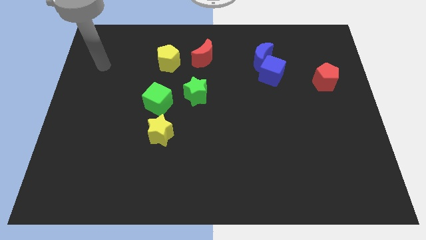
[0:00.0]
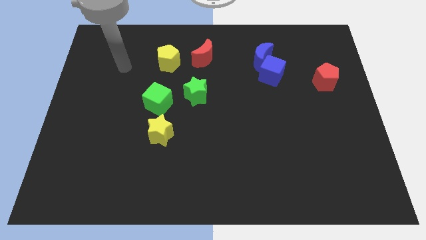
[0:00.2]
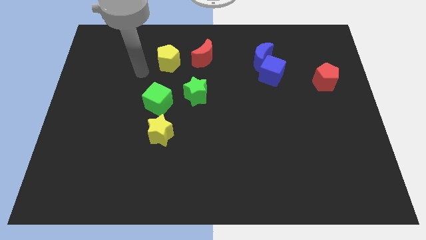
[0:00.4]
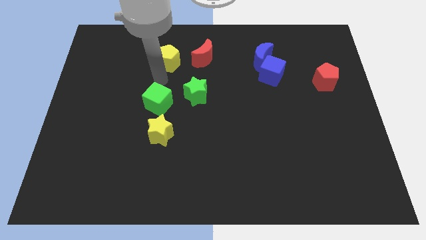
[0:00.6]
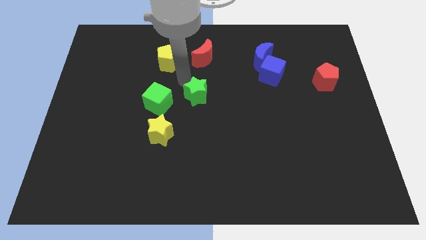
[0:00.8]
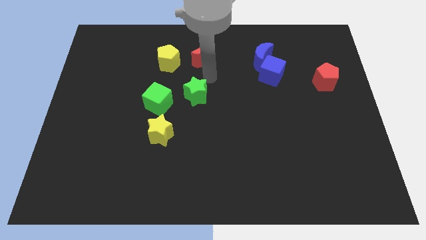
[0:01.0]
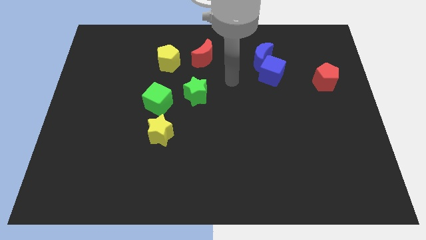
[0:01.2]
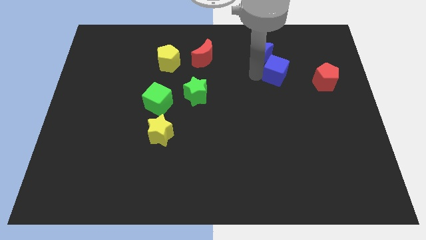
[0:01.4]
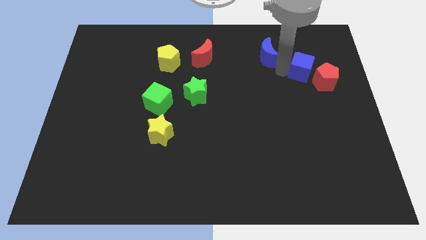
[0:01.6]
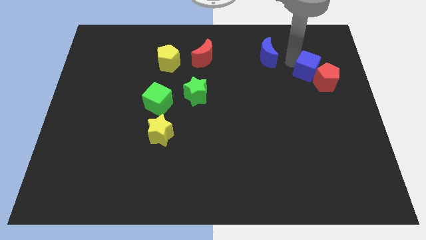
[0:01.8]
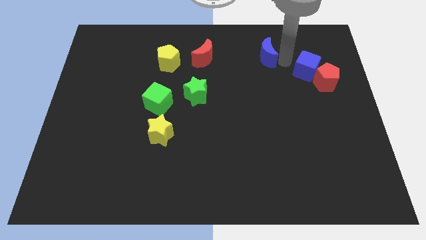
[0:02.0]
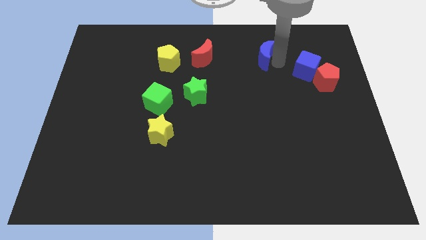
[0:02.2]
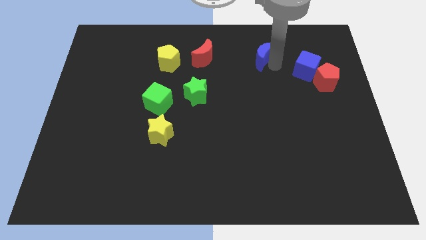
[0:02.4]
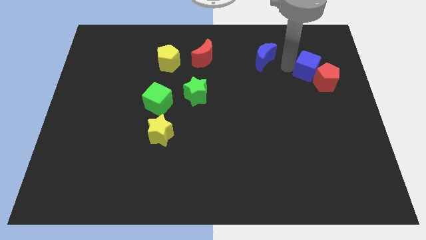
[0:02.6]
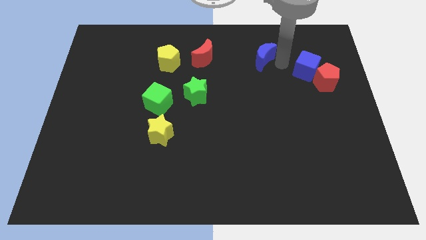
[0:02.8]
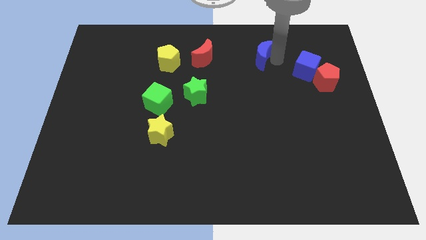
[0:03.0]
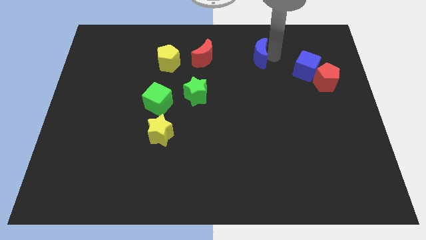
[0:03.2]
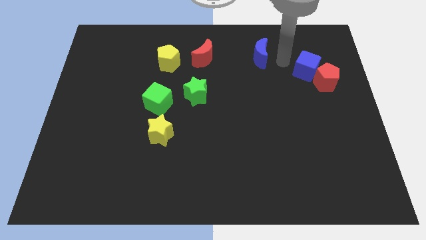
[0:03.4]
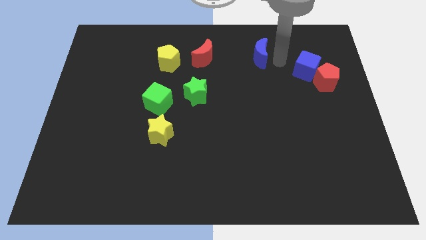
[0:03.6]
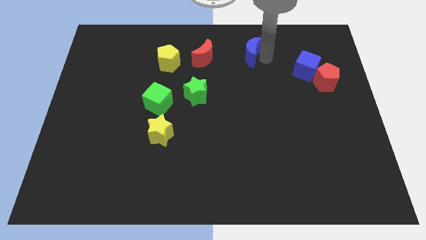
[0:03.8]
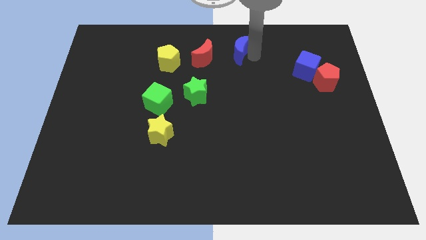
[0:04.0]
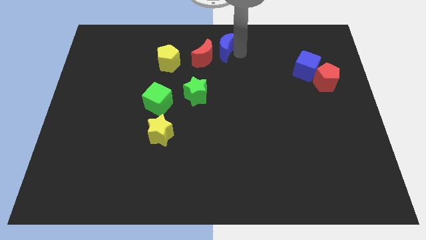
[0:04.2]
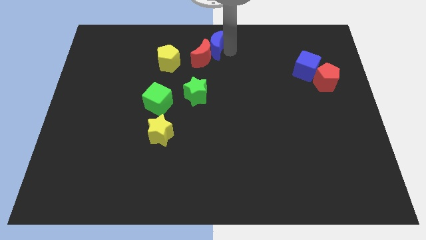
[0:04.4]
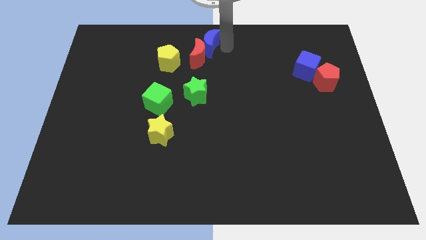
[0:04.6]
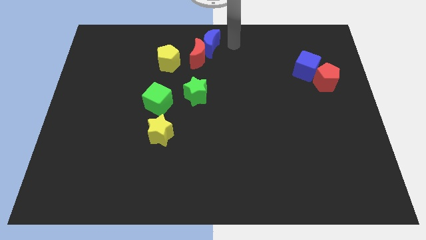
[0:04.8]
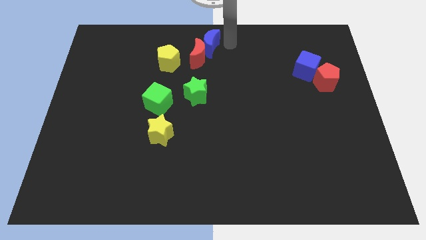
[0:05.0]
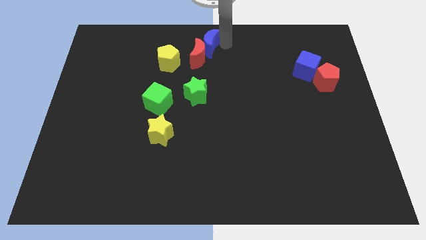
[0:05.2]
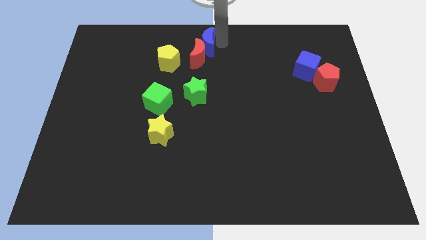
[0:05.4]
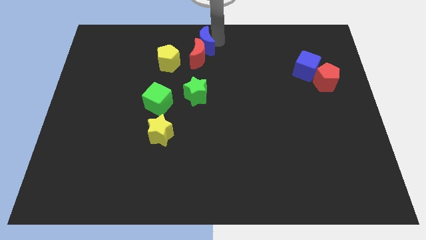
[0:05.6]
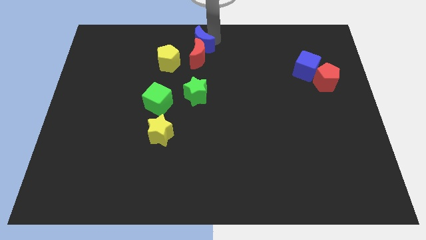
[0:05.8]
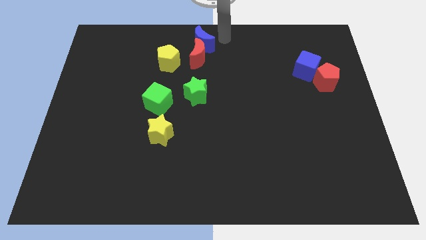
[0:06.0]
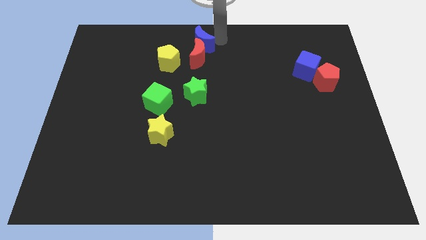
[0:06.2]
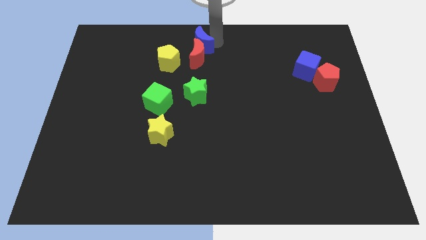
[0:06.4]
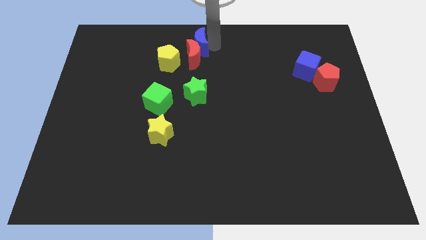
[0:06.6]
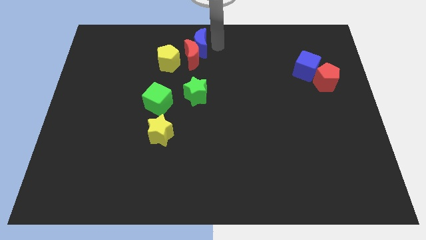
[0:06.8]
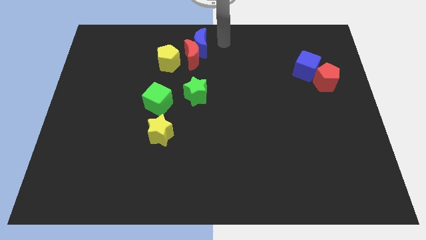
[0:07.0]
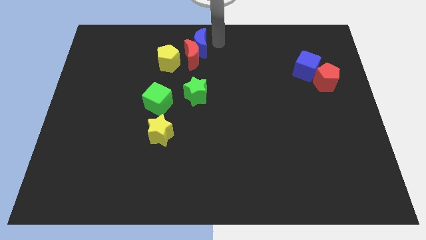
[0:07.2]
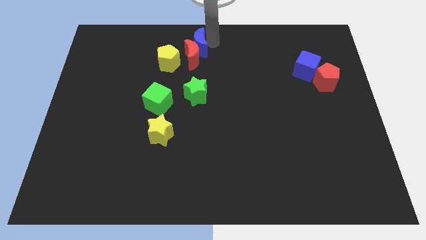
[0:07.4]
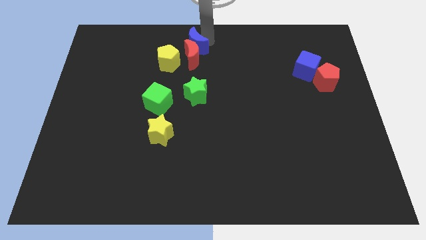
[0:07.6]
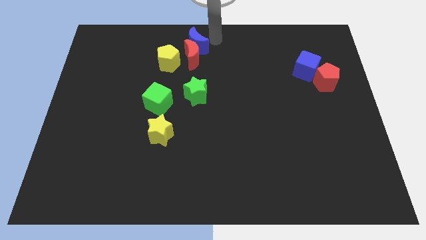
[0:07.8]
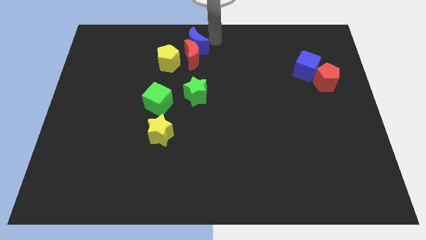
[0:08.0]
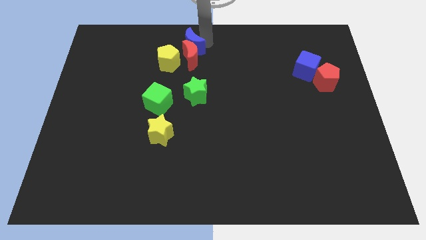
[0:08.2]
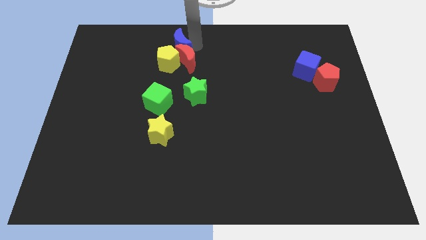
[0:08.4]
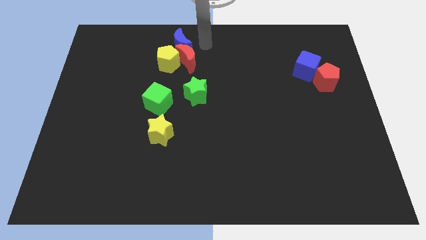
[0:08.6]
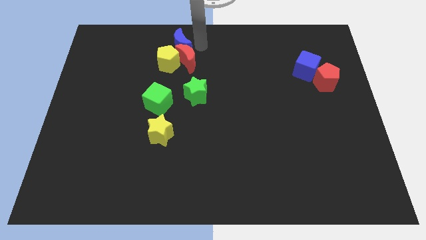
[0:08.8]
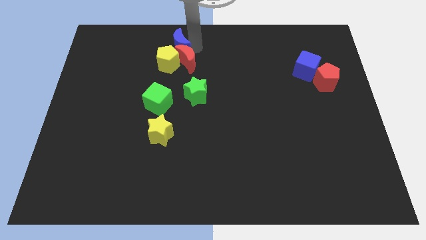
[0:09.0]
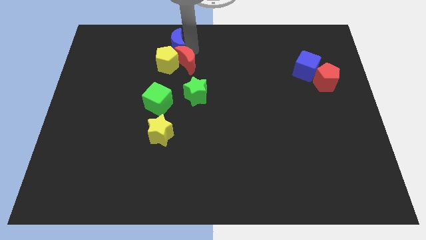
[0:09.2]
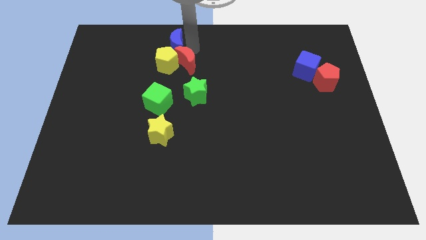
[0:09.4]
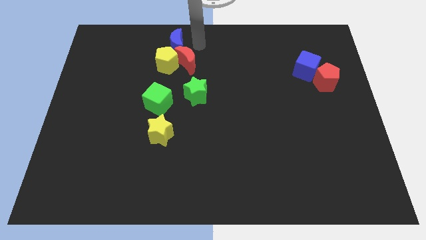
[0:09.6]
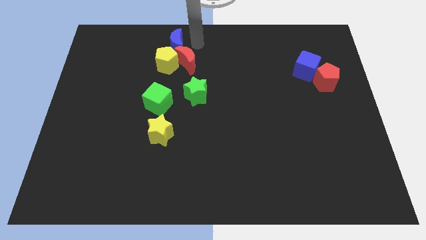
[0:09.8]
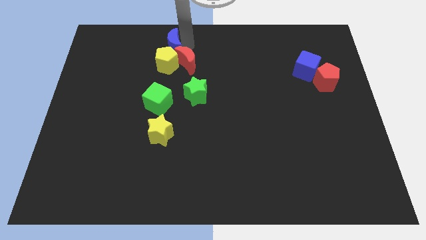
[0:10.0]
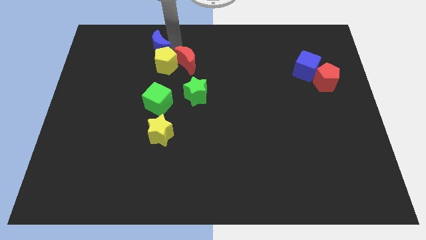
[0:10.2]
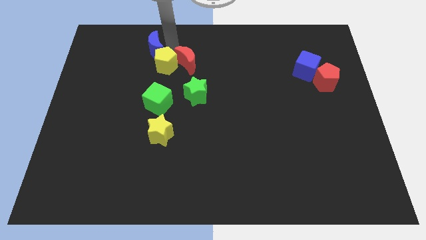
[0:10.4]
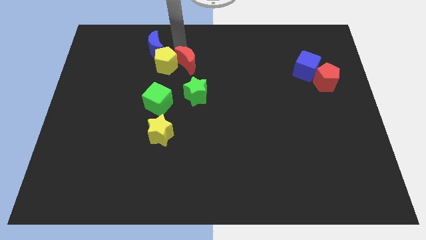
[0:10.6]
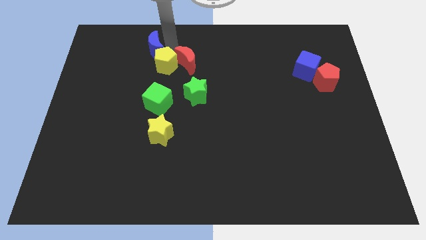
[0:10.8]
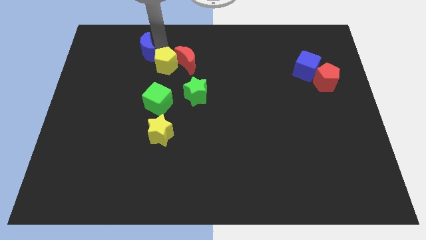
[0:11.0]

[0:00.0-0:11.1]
move the blue moon just left of the yellow pentagon

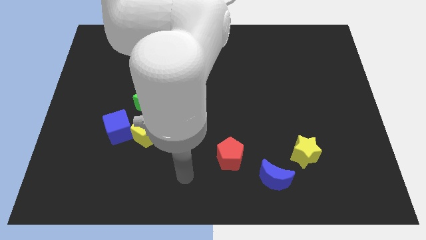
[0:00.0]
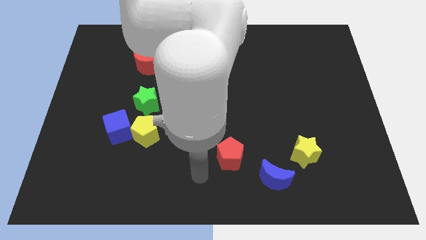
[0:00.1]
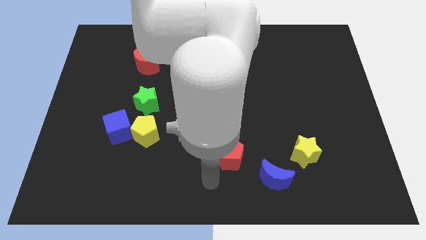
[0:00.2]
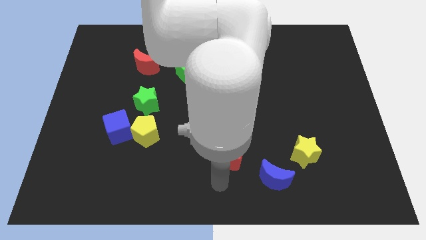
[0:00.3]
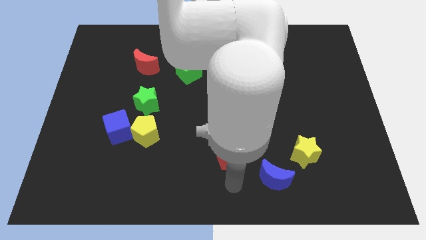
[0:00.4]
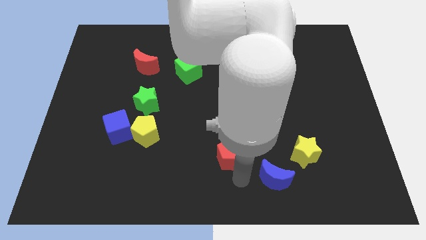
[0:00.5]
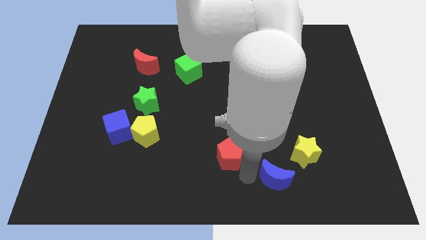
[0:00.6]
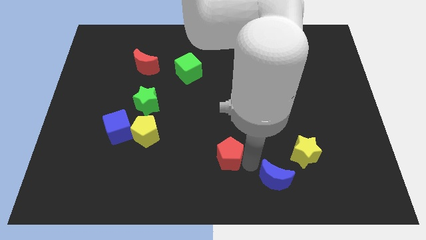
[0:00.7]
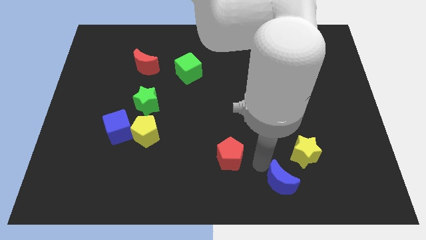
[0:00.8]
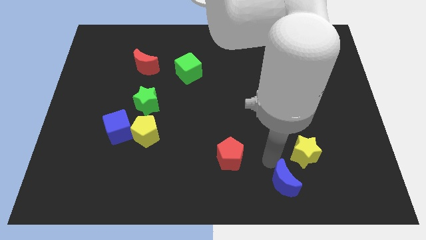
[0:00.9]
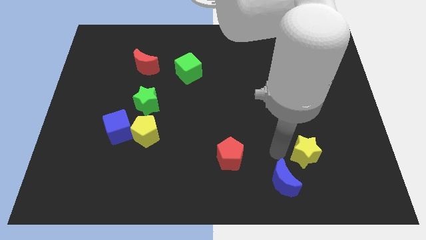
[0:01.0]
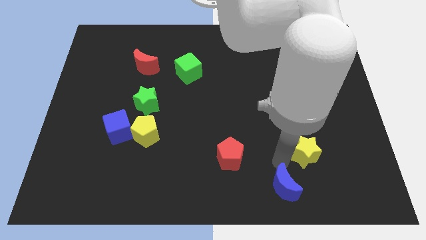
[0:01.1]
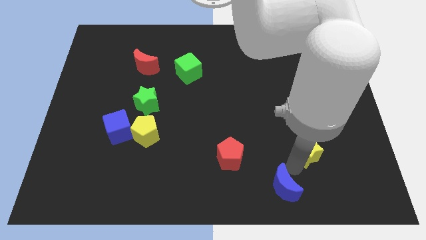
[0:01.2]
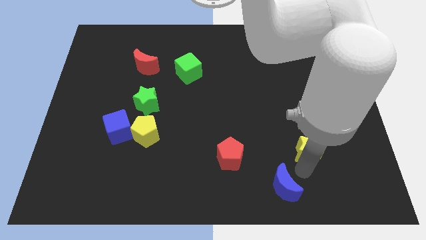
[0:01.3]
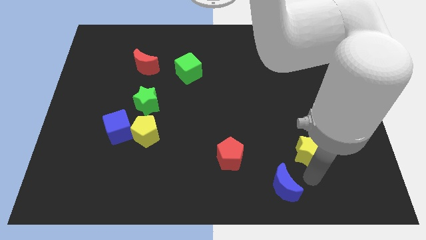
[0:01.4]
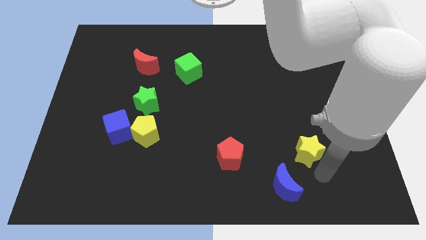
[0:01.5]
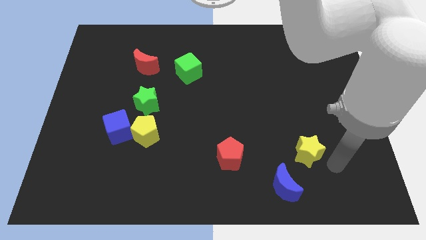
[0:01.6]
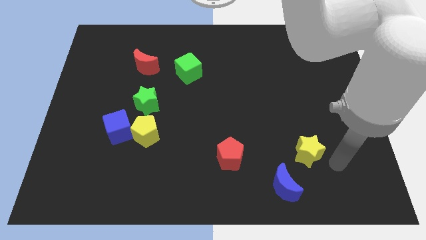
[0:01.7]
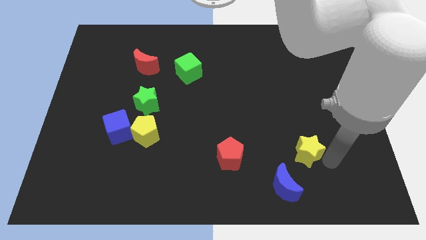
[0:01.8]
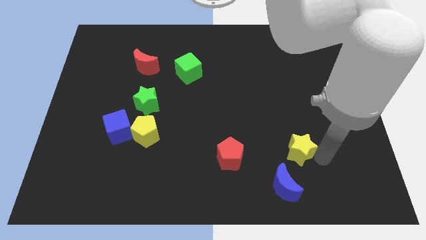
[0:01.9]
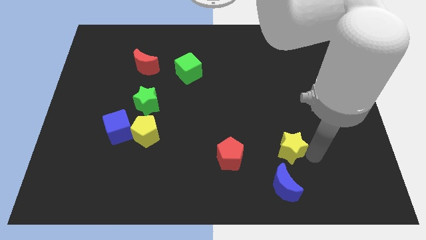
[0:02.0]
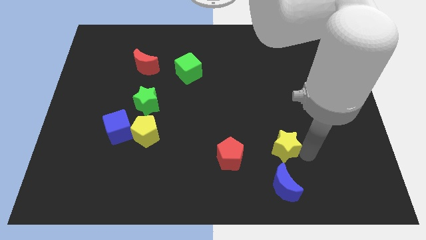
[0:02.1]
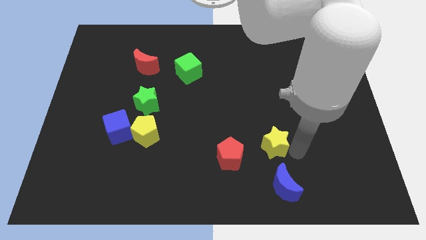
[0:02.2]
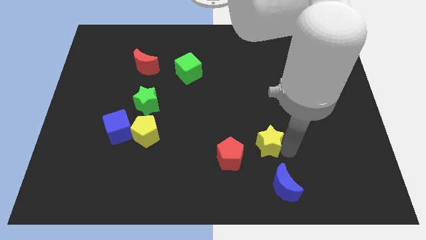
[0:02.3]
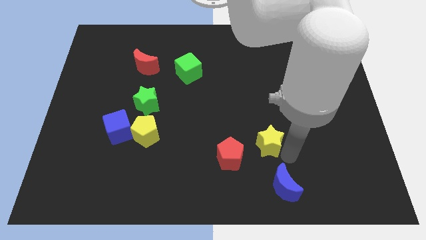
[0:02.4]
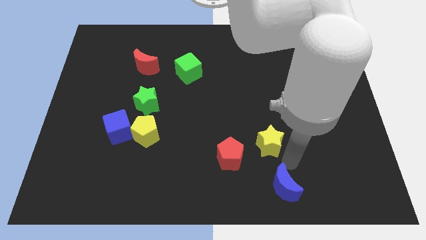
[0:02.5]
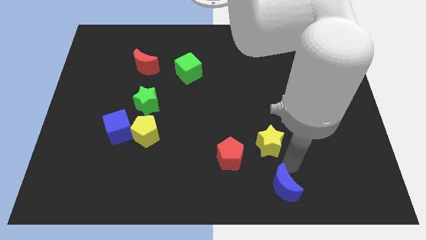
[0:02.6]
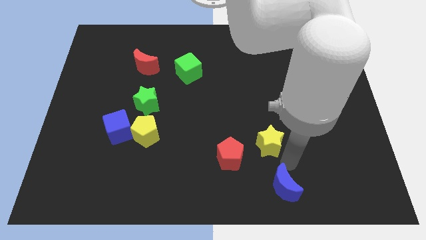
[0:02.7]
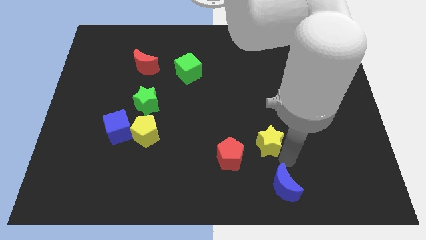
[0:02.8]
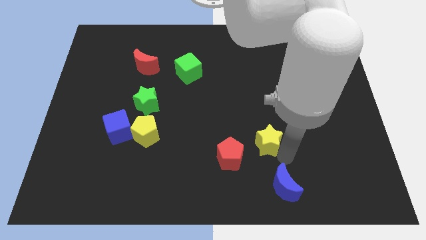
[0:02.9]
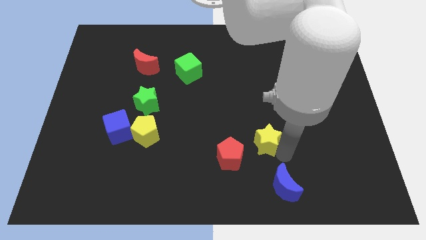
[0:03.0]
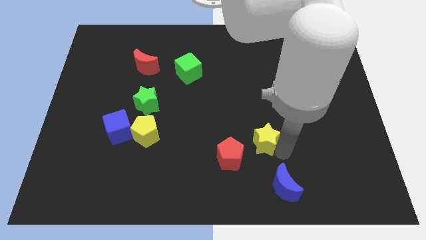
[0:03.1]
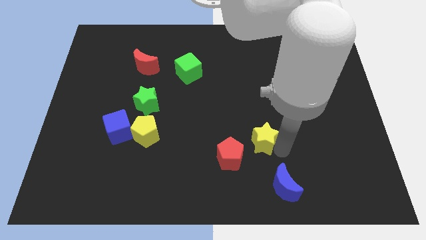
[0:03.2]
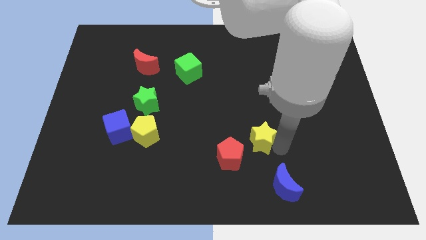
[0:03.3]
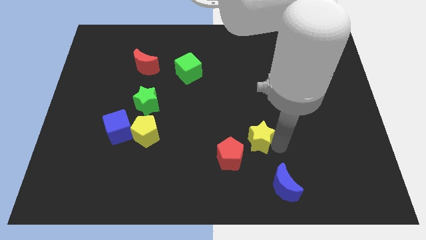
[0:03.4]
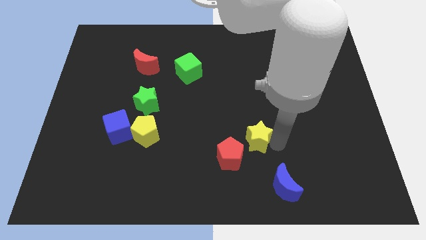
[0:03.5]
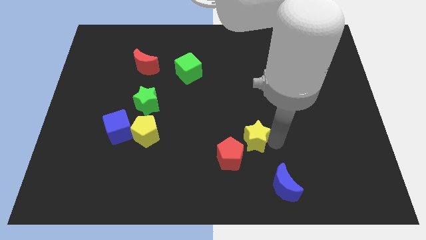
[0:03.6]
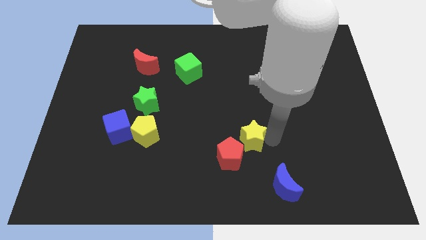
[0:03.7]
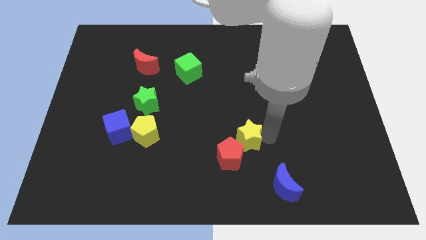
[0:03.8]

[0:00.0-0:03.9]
move the yellow star above the red pentagon
